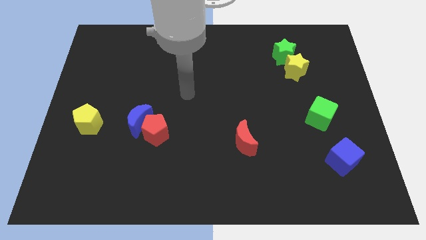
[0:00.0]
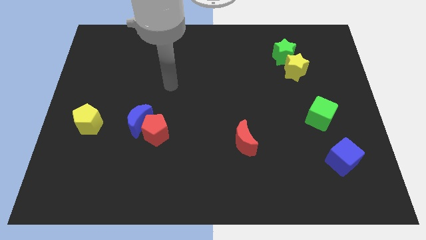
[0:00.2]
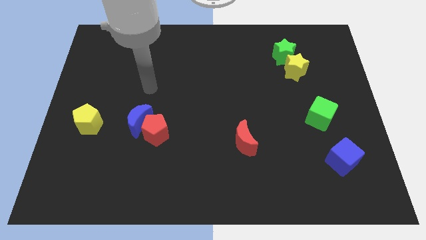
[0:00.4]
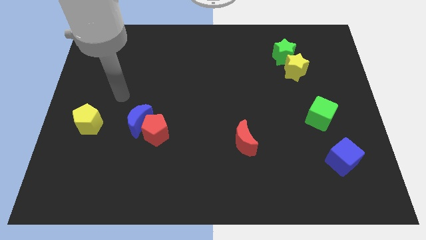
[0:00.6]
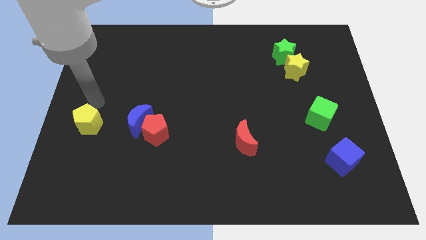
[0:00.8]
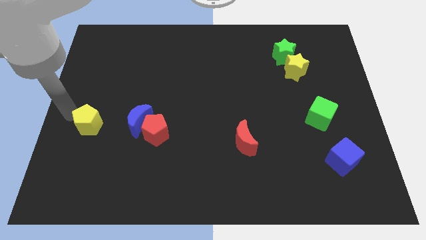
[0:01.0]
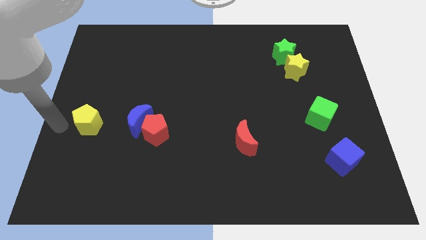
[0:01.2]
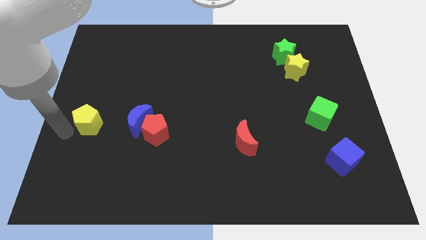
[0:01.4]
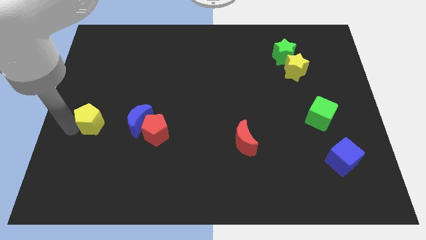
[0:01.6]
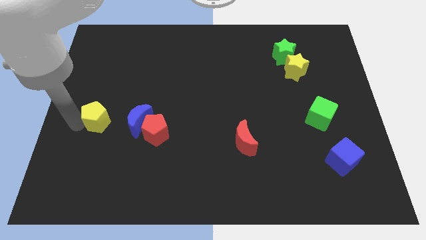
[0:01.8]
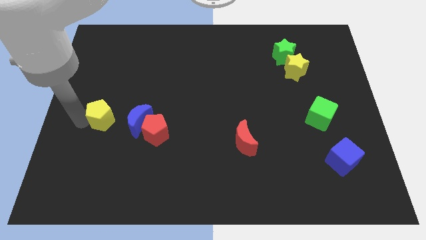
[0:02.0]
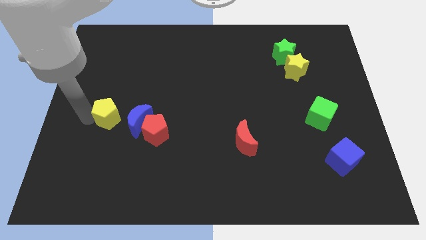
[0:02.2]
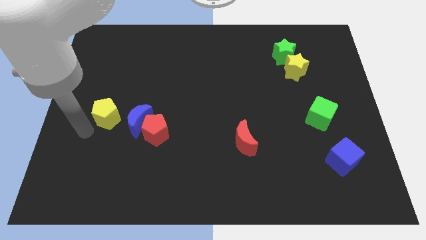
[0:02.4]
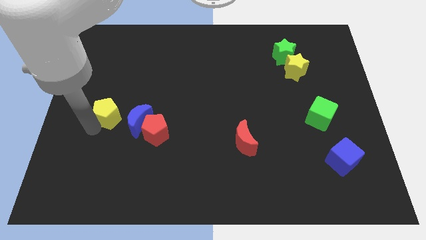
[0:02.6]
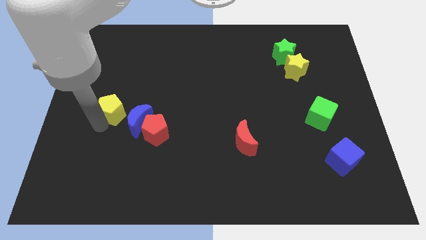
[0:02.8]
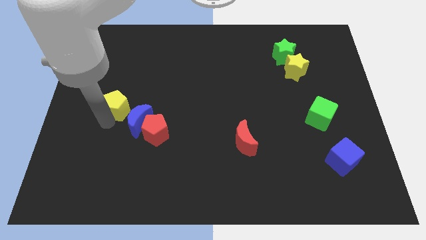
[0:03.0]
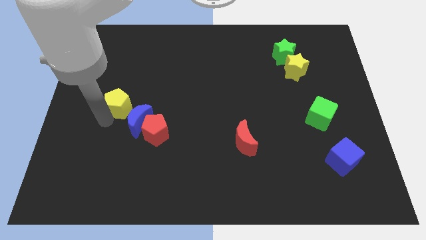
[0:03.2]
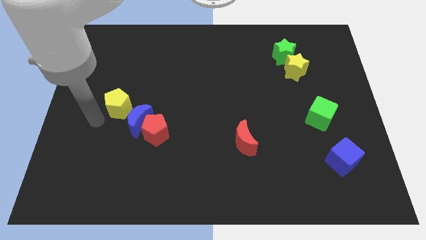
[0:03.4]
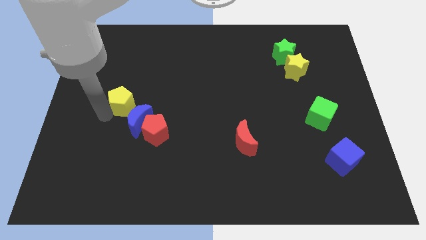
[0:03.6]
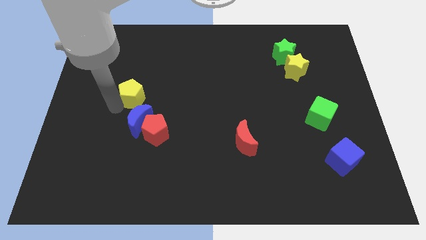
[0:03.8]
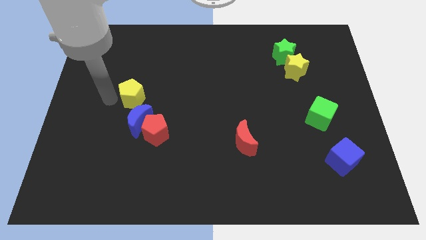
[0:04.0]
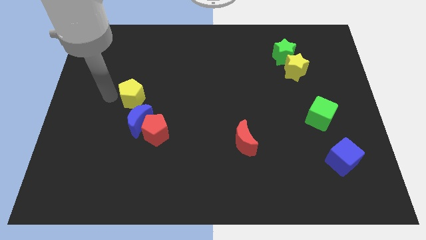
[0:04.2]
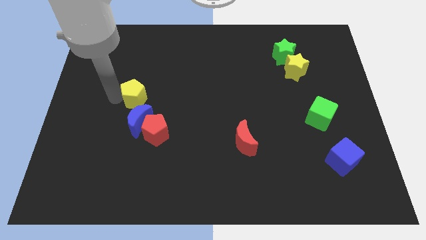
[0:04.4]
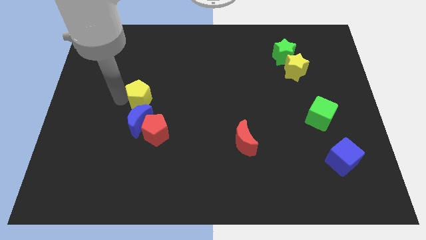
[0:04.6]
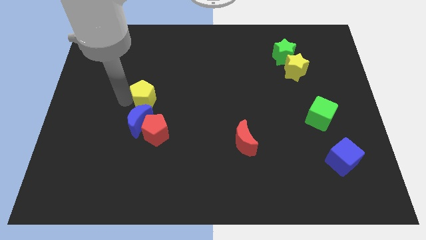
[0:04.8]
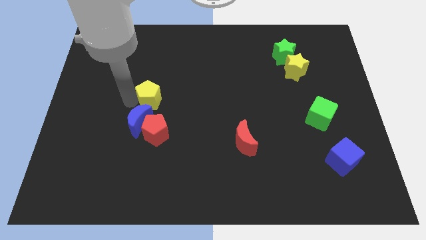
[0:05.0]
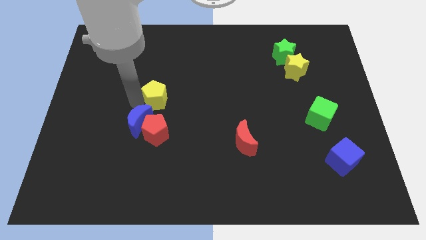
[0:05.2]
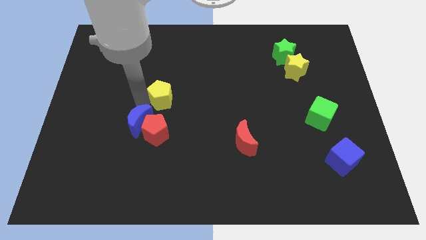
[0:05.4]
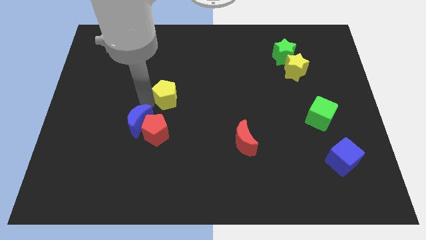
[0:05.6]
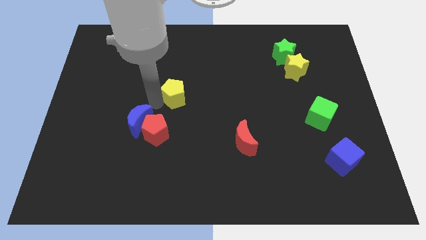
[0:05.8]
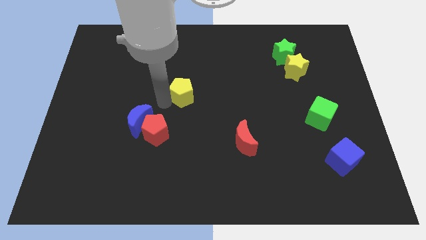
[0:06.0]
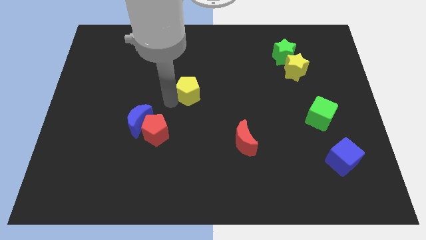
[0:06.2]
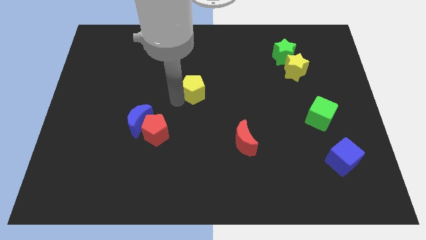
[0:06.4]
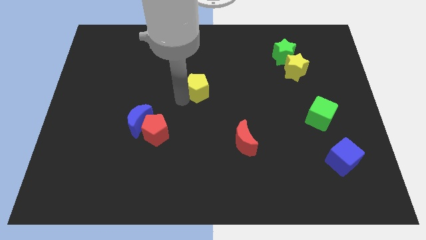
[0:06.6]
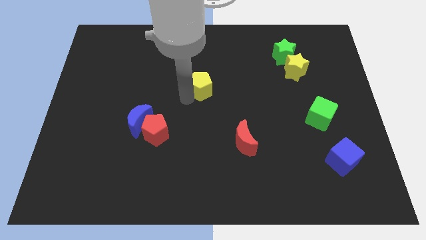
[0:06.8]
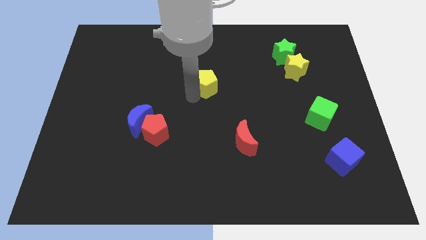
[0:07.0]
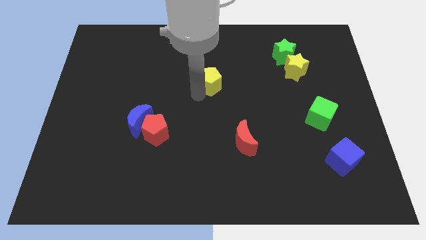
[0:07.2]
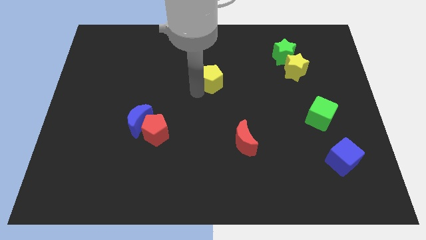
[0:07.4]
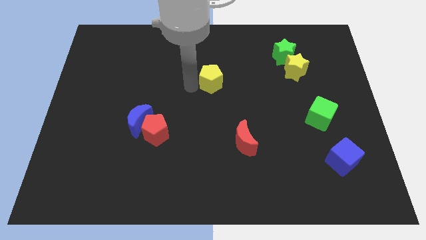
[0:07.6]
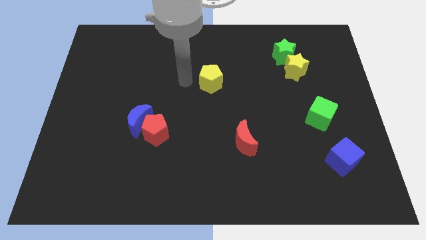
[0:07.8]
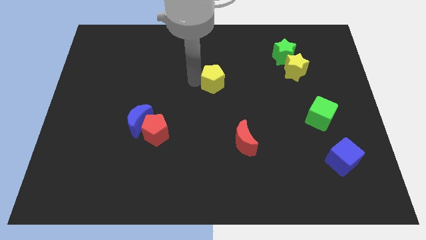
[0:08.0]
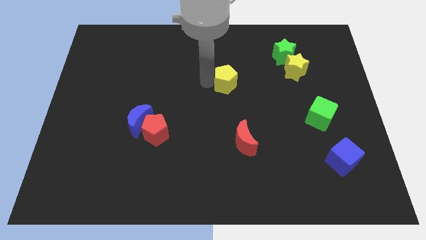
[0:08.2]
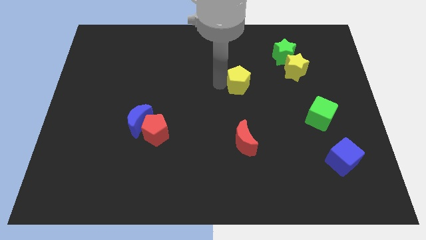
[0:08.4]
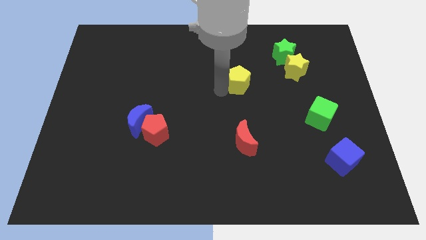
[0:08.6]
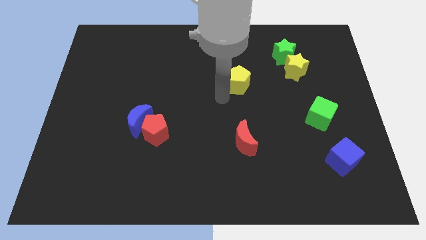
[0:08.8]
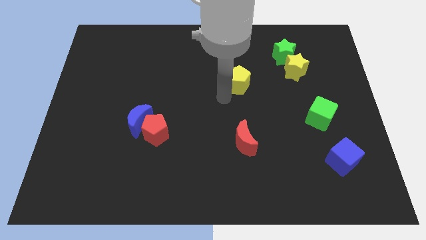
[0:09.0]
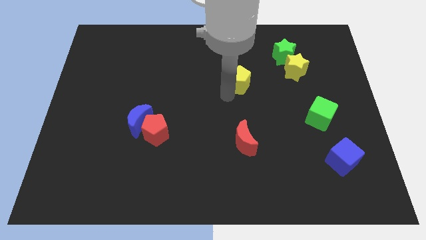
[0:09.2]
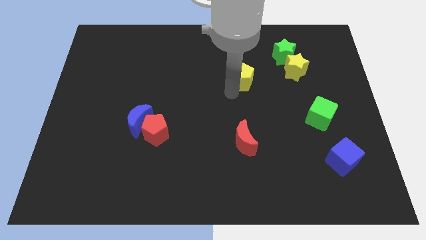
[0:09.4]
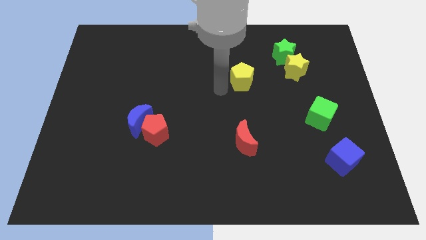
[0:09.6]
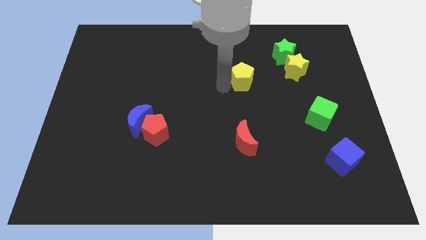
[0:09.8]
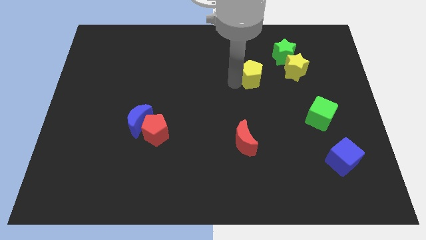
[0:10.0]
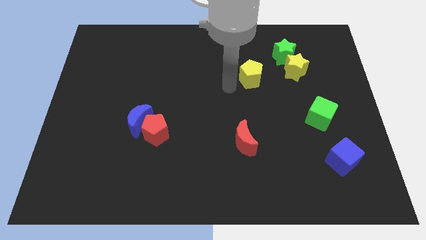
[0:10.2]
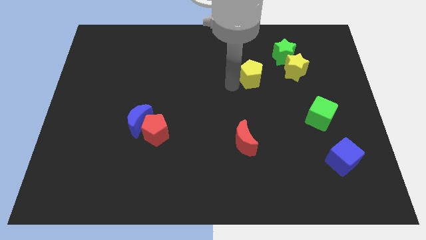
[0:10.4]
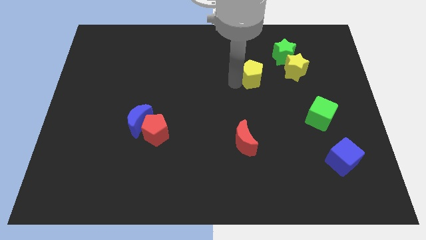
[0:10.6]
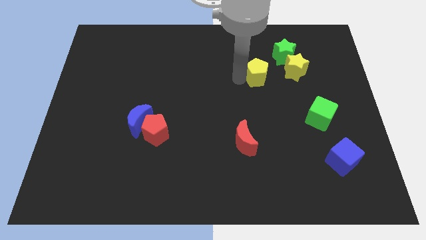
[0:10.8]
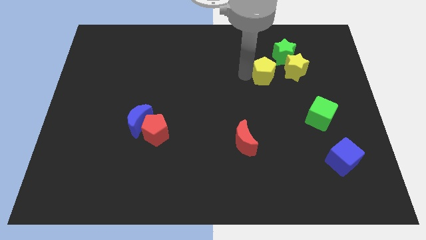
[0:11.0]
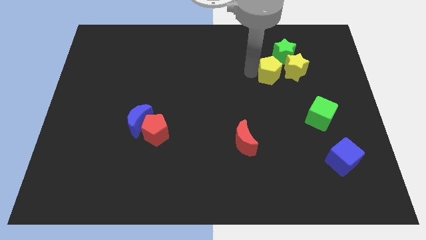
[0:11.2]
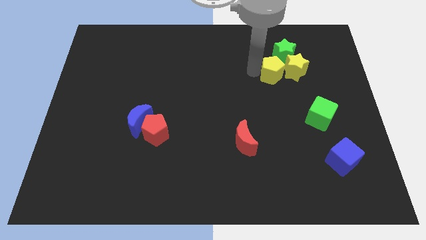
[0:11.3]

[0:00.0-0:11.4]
slide the yellow pentagon towards the yellow star
